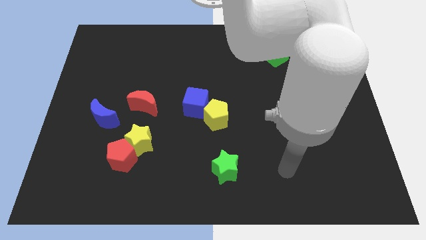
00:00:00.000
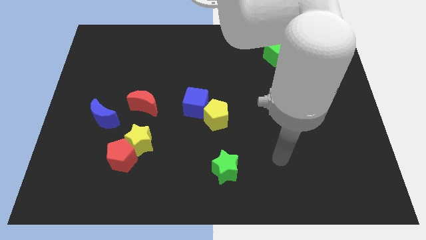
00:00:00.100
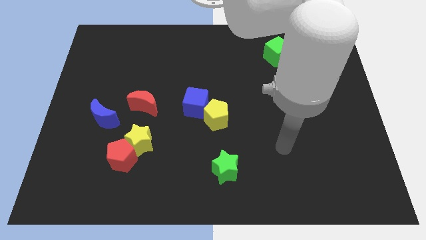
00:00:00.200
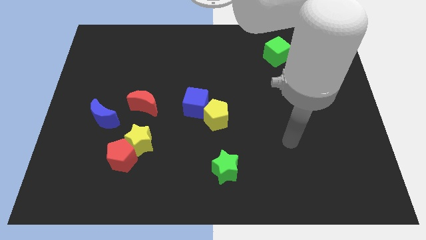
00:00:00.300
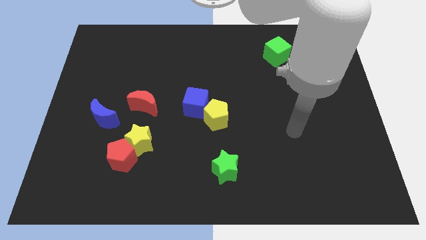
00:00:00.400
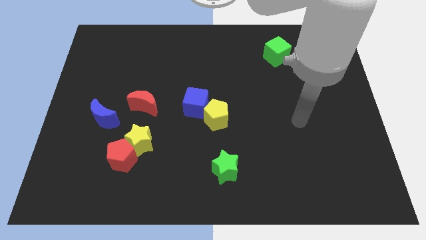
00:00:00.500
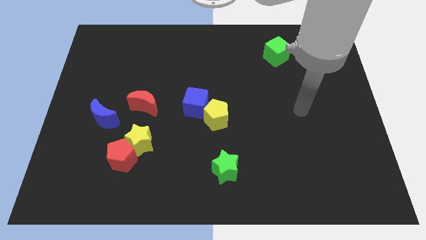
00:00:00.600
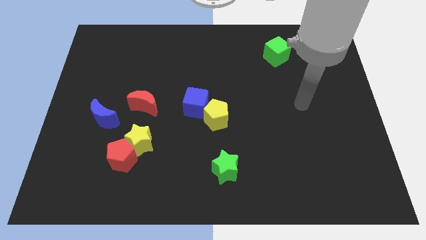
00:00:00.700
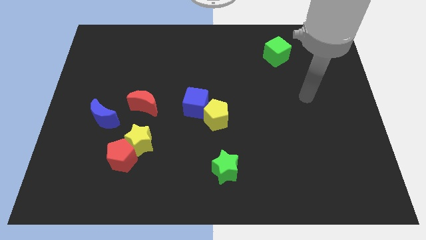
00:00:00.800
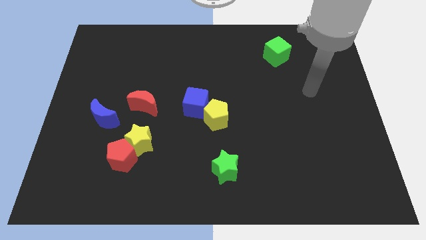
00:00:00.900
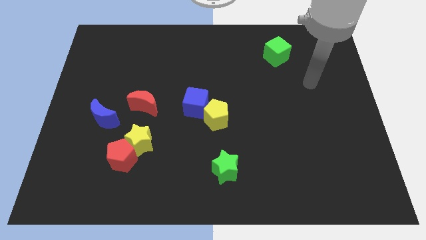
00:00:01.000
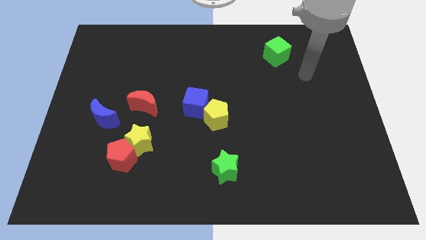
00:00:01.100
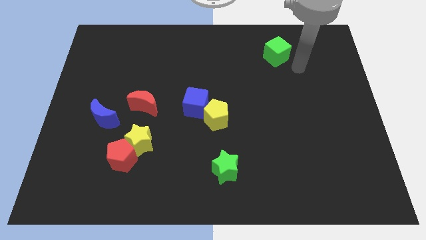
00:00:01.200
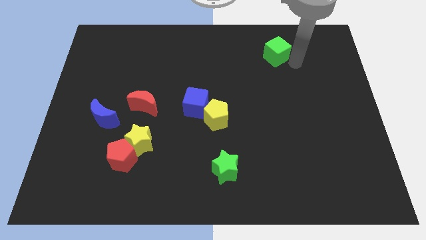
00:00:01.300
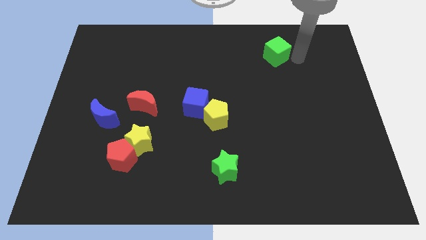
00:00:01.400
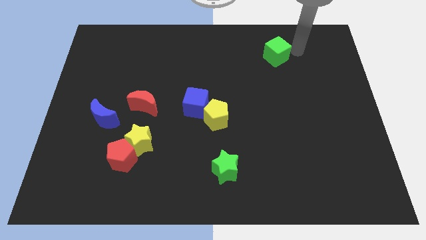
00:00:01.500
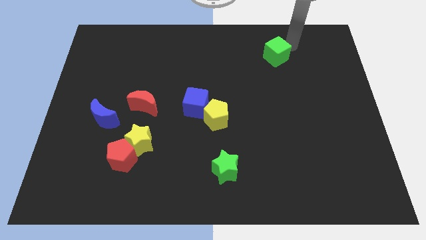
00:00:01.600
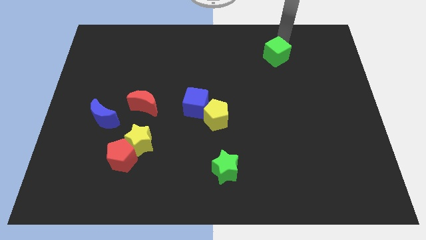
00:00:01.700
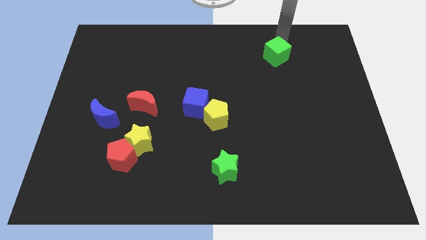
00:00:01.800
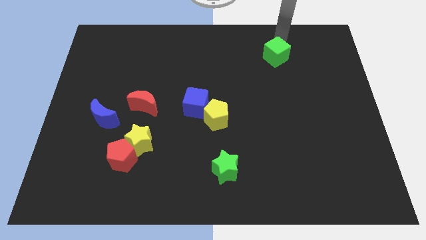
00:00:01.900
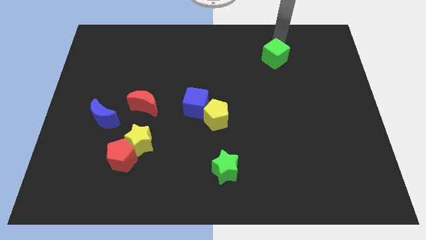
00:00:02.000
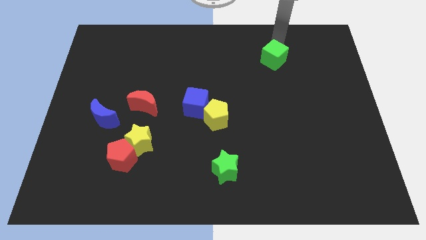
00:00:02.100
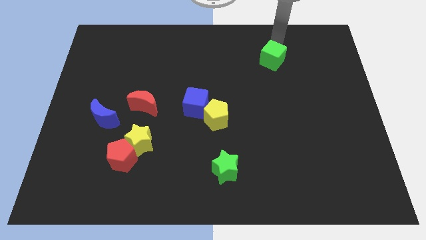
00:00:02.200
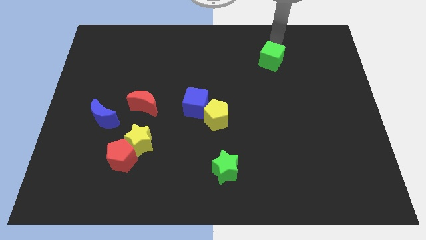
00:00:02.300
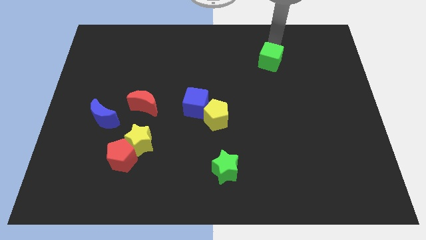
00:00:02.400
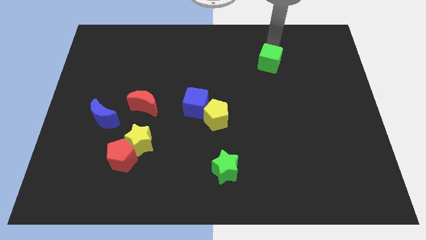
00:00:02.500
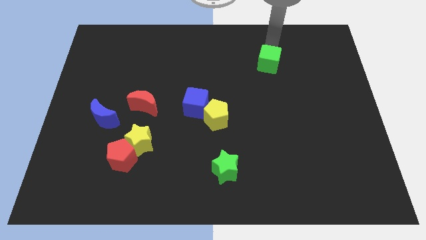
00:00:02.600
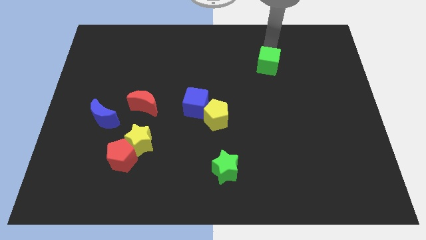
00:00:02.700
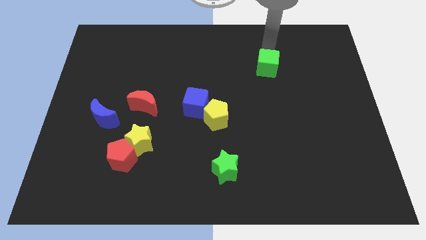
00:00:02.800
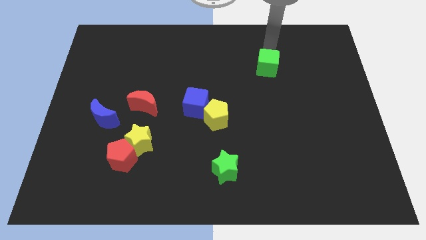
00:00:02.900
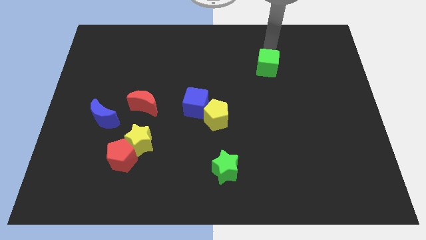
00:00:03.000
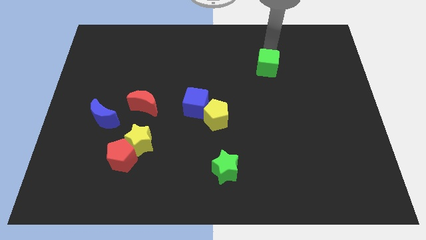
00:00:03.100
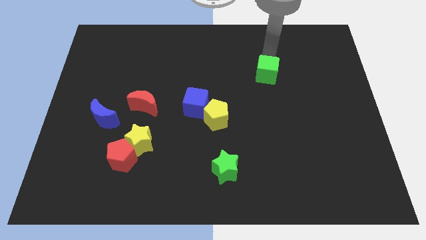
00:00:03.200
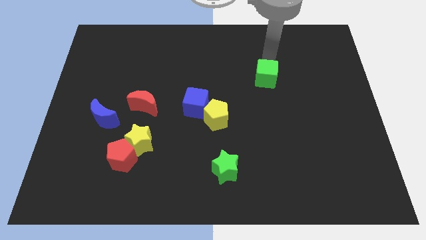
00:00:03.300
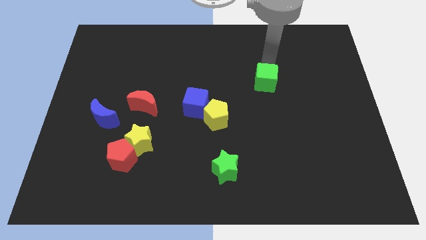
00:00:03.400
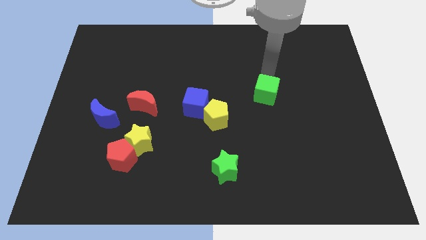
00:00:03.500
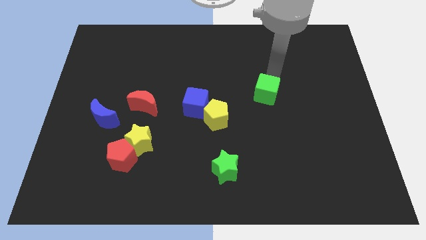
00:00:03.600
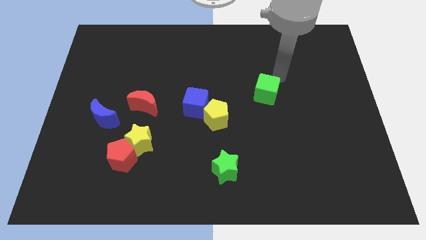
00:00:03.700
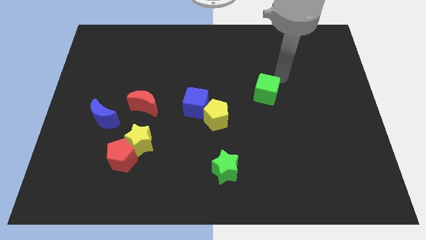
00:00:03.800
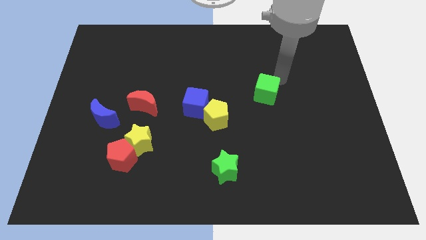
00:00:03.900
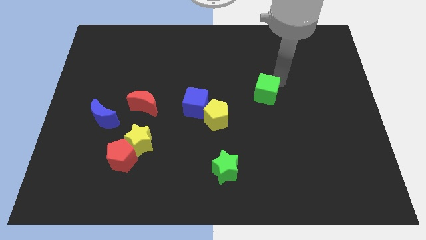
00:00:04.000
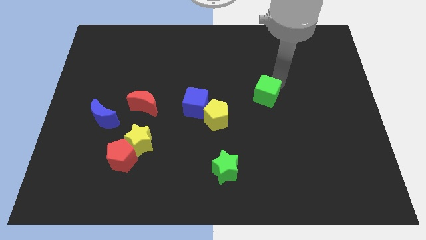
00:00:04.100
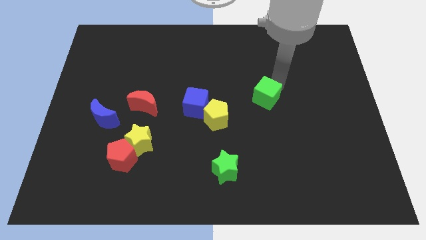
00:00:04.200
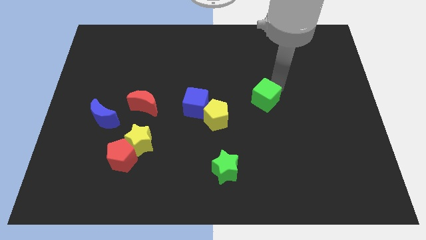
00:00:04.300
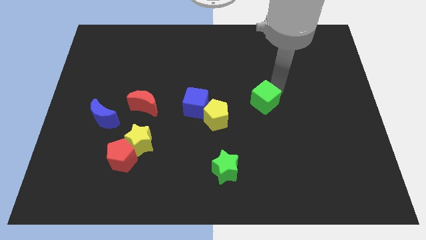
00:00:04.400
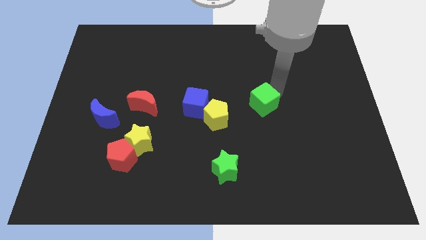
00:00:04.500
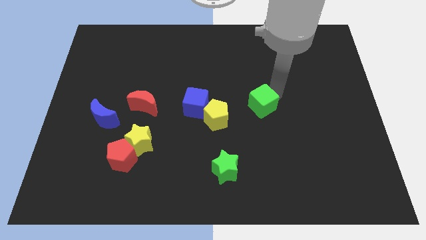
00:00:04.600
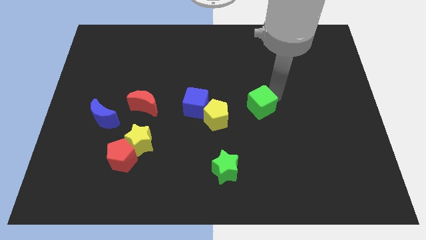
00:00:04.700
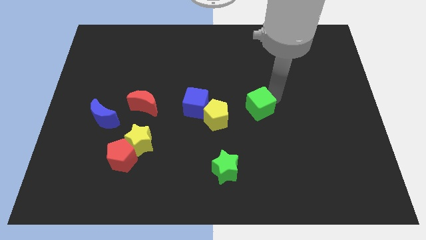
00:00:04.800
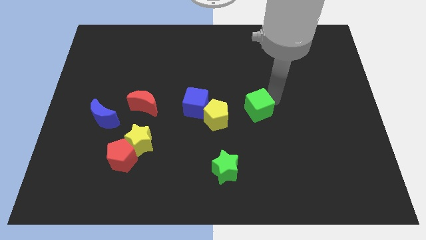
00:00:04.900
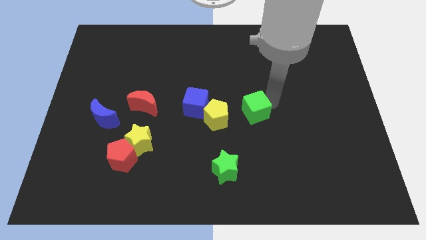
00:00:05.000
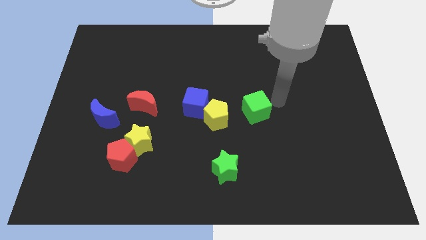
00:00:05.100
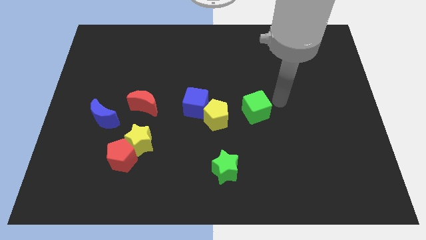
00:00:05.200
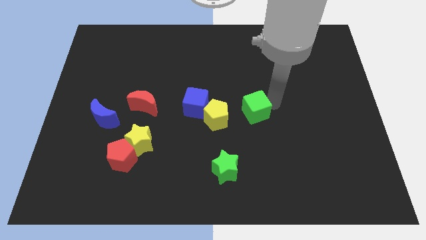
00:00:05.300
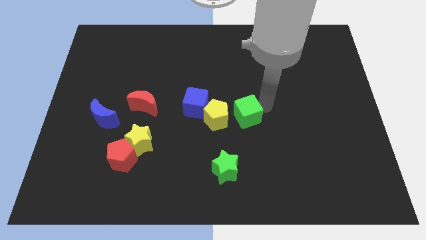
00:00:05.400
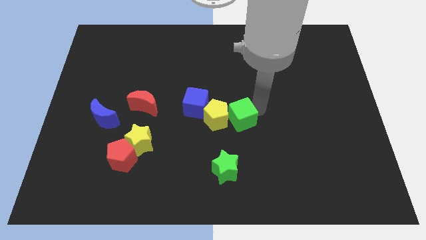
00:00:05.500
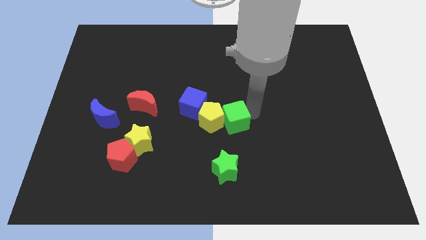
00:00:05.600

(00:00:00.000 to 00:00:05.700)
slide the green cube diagonally down and to the right of the blue cube

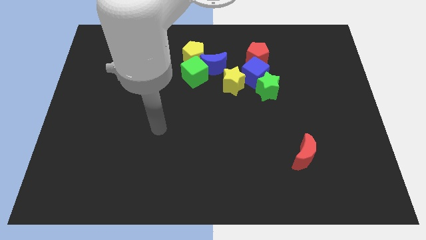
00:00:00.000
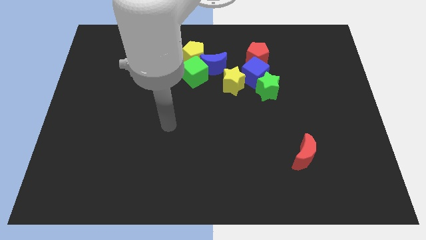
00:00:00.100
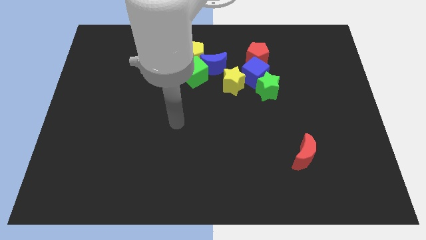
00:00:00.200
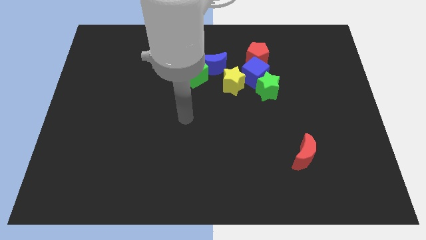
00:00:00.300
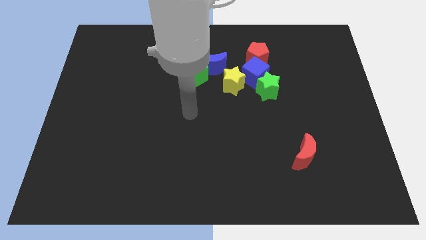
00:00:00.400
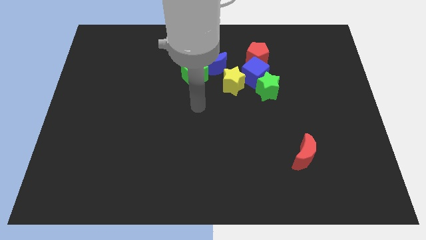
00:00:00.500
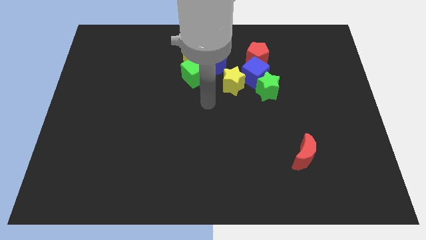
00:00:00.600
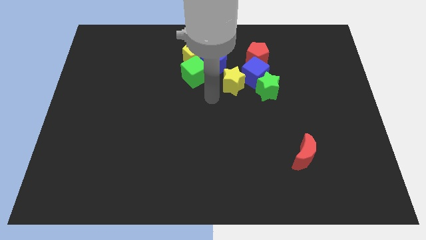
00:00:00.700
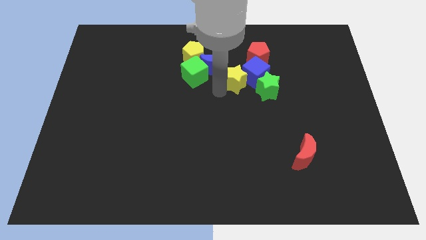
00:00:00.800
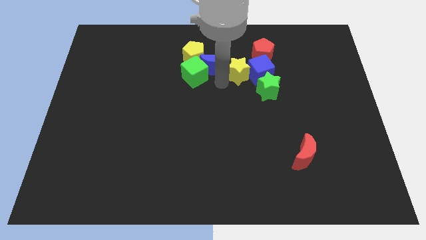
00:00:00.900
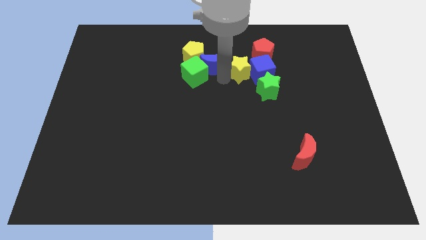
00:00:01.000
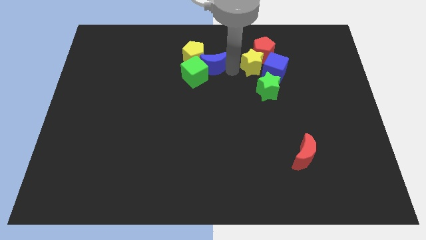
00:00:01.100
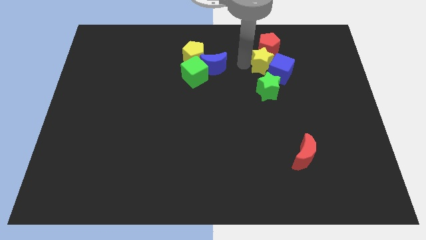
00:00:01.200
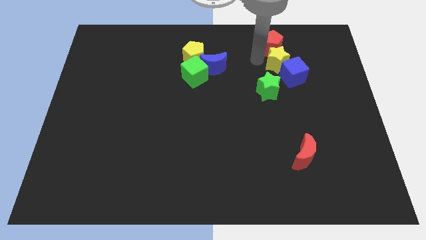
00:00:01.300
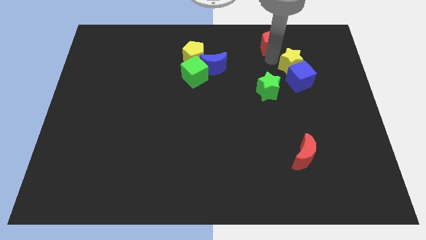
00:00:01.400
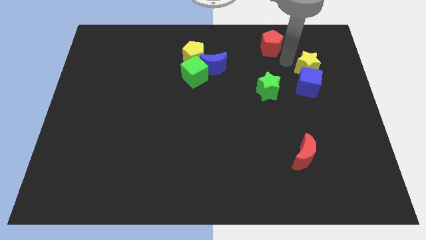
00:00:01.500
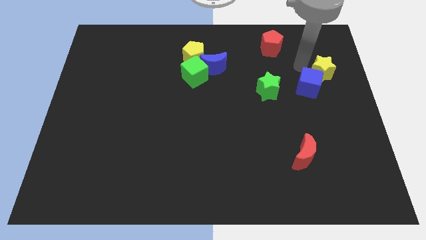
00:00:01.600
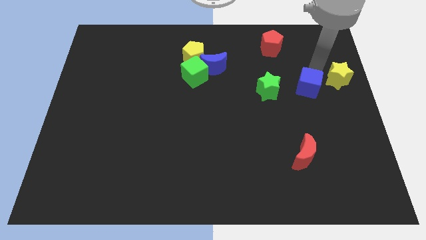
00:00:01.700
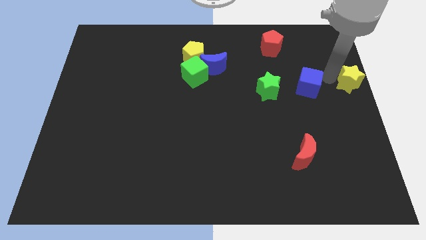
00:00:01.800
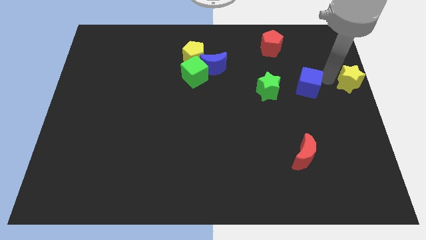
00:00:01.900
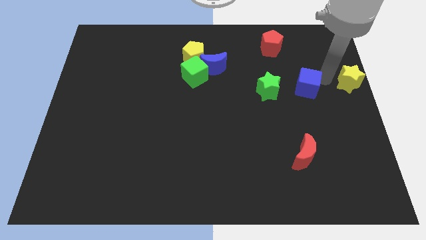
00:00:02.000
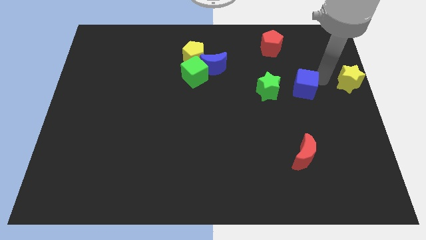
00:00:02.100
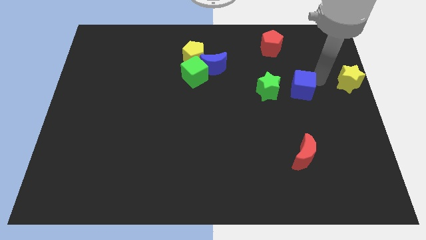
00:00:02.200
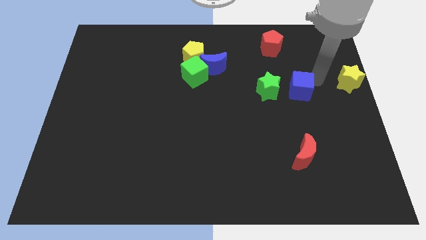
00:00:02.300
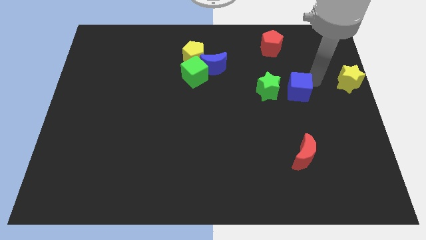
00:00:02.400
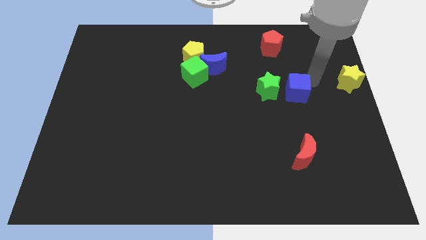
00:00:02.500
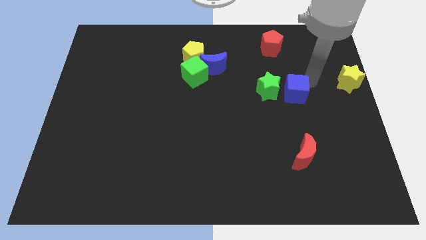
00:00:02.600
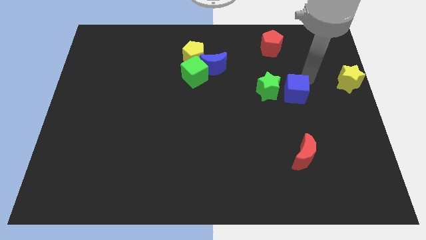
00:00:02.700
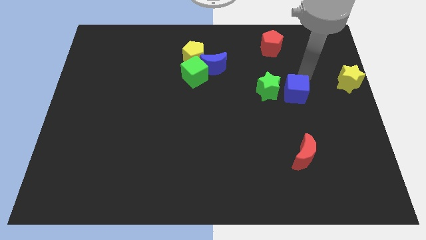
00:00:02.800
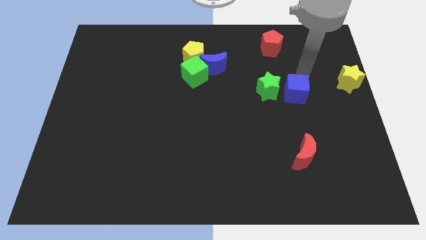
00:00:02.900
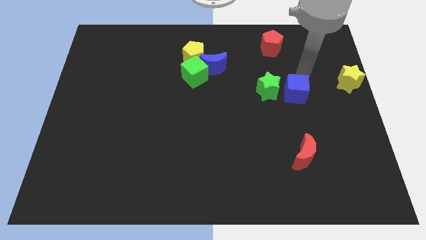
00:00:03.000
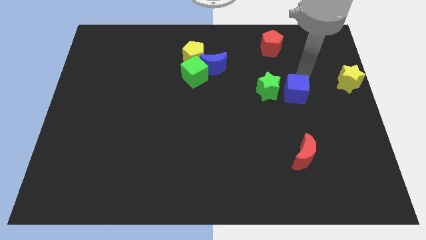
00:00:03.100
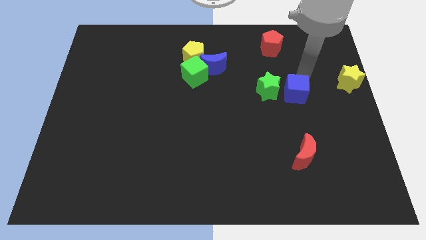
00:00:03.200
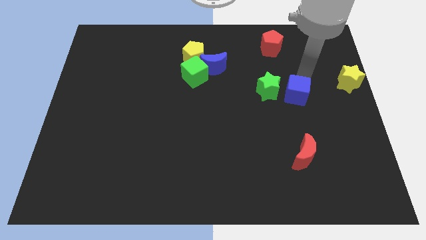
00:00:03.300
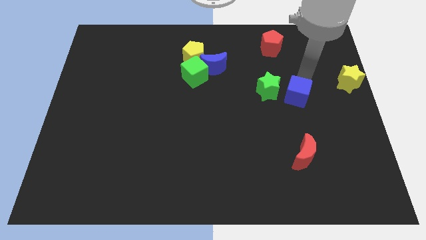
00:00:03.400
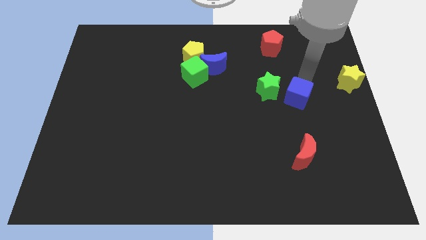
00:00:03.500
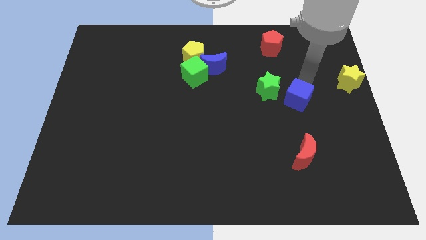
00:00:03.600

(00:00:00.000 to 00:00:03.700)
move the blue cube above the red moon
